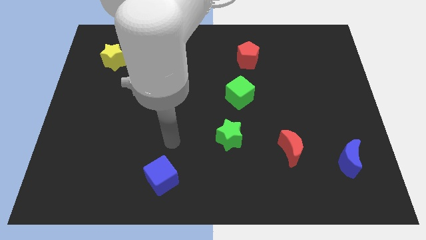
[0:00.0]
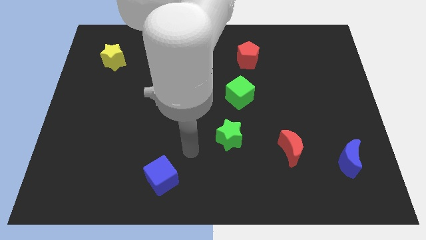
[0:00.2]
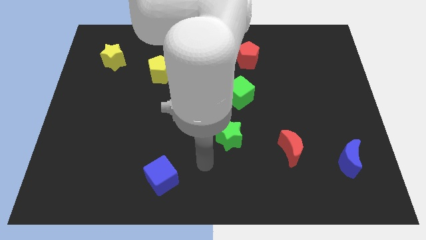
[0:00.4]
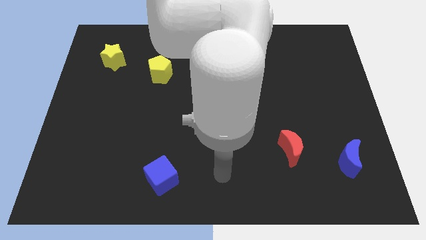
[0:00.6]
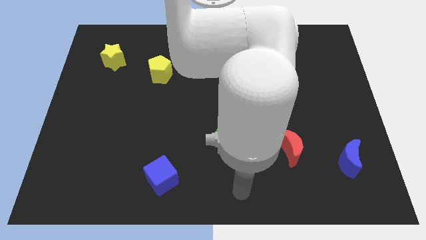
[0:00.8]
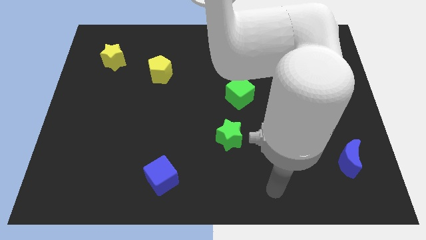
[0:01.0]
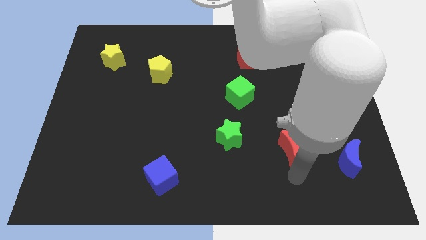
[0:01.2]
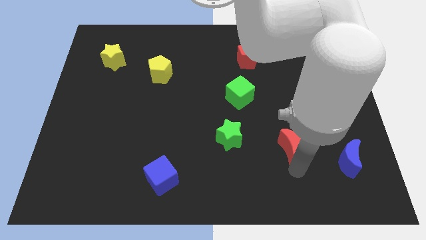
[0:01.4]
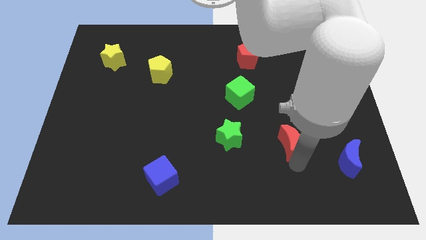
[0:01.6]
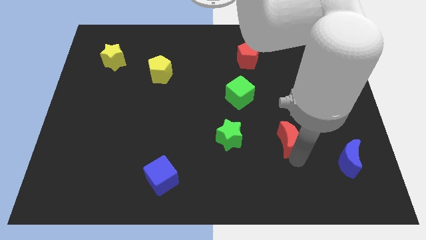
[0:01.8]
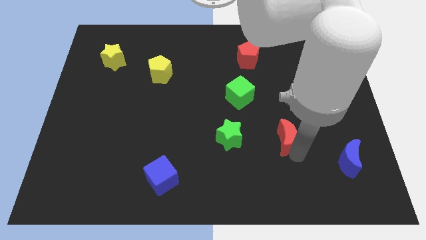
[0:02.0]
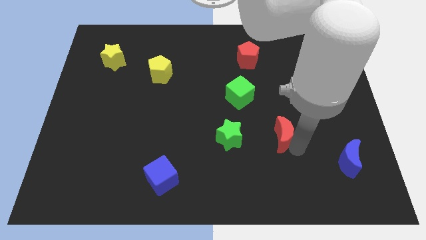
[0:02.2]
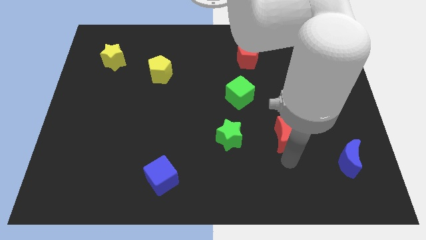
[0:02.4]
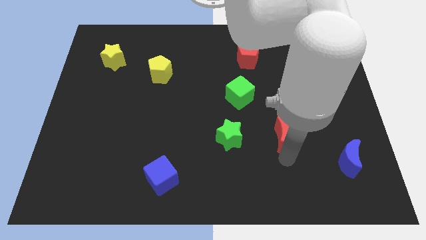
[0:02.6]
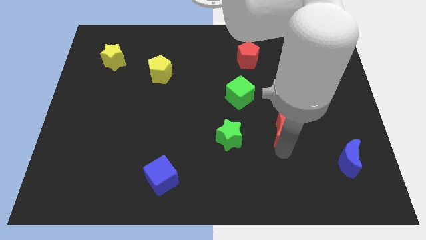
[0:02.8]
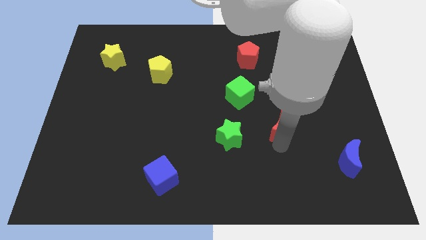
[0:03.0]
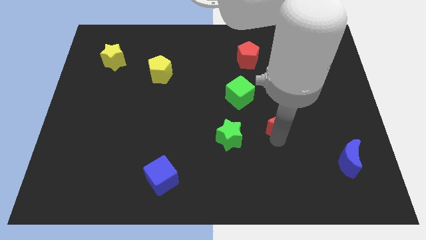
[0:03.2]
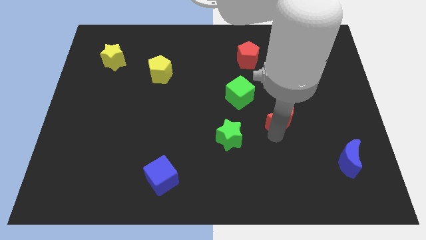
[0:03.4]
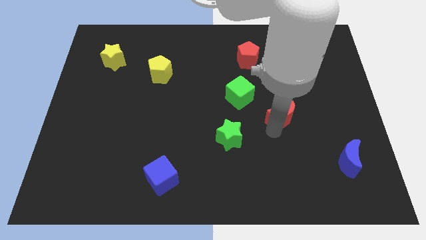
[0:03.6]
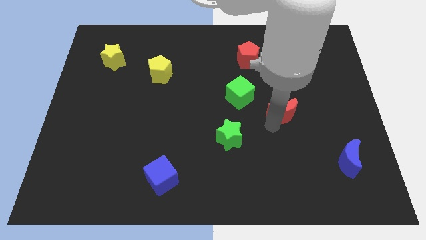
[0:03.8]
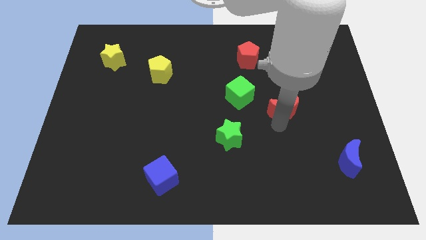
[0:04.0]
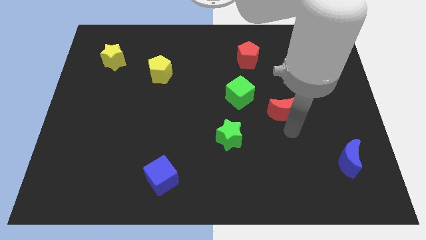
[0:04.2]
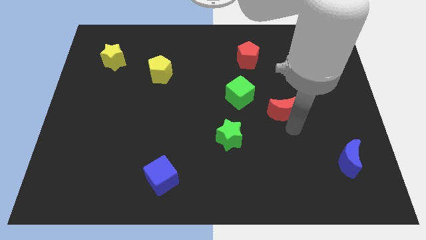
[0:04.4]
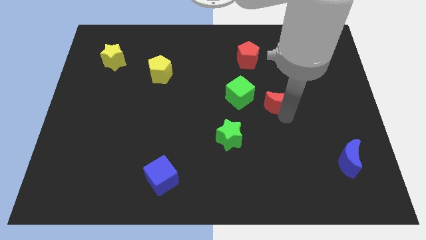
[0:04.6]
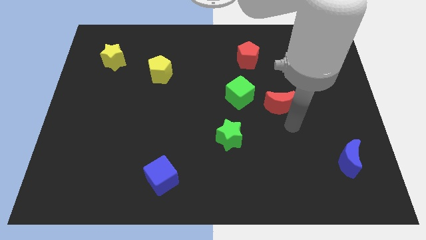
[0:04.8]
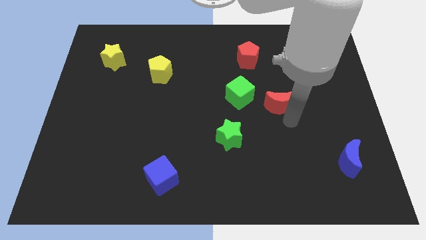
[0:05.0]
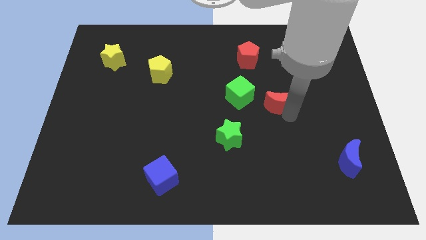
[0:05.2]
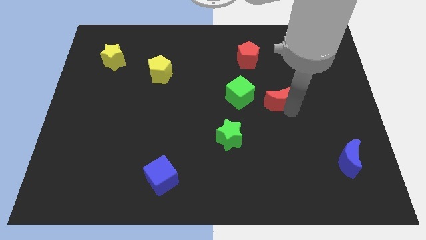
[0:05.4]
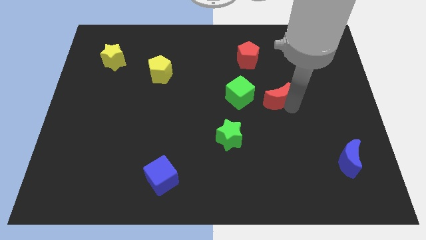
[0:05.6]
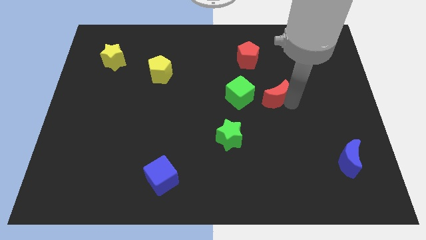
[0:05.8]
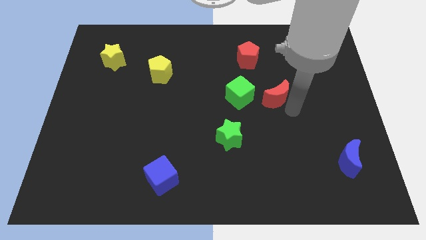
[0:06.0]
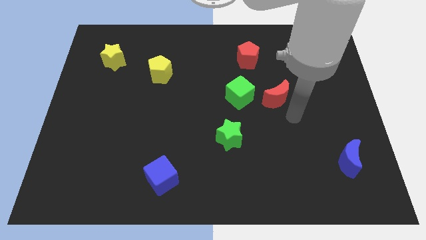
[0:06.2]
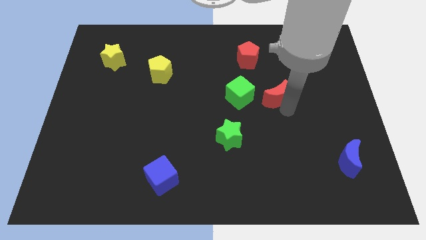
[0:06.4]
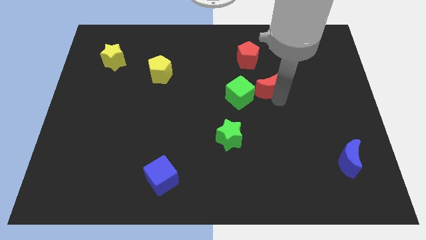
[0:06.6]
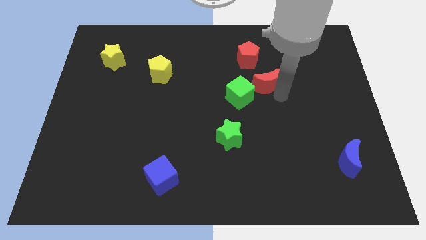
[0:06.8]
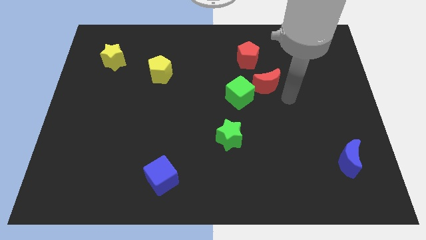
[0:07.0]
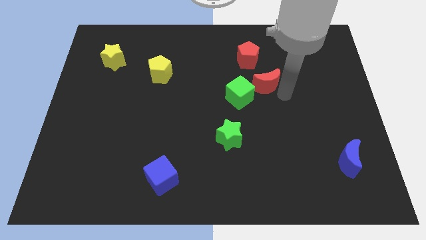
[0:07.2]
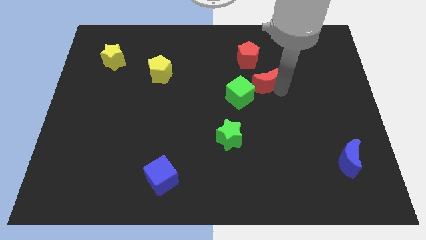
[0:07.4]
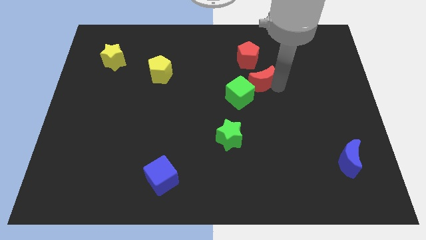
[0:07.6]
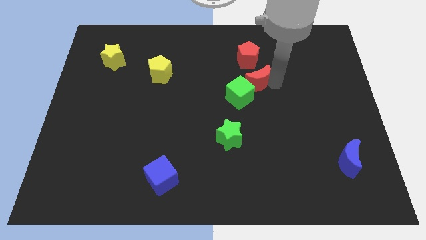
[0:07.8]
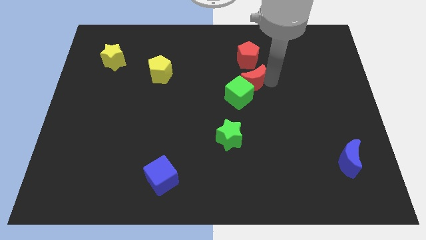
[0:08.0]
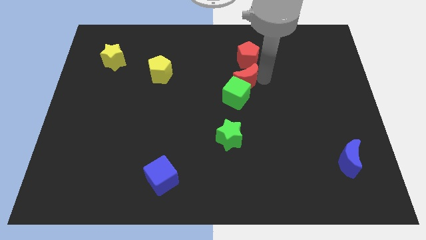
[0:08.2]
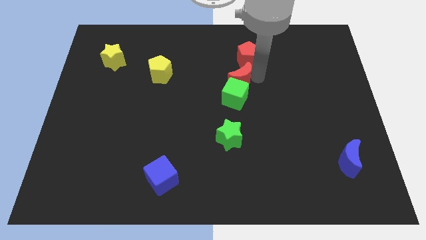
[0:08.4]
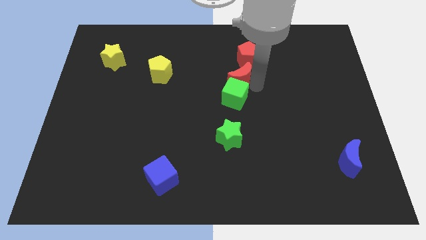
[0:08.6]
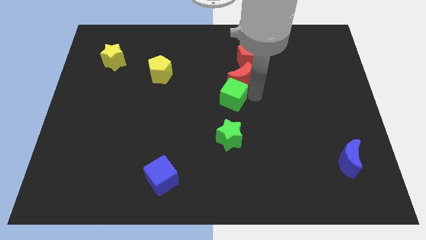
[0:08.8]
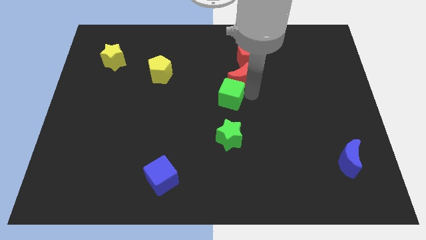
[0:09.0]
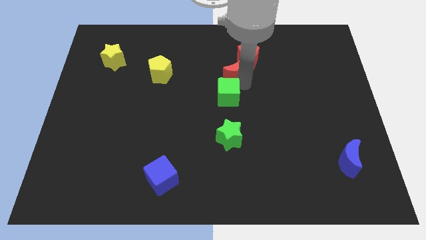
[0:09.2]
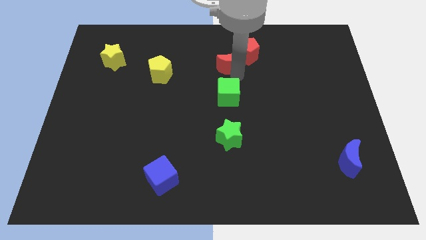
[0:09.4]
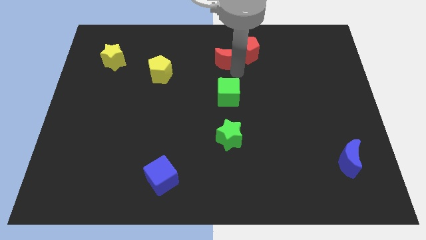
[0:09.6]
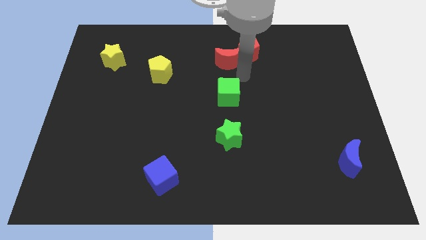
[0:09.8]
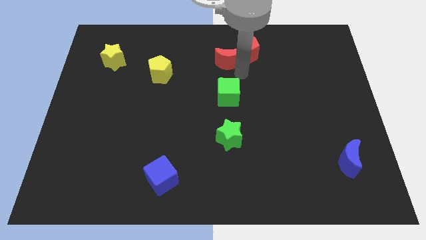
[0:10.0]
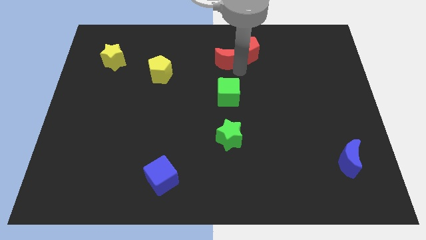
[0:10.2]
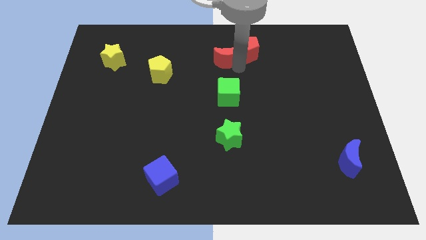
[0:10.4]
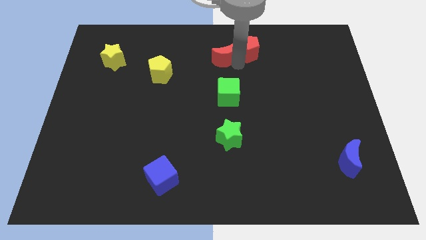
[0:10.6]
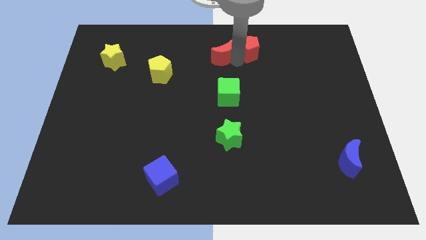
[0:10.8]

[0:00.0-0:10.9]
slide the red moon to the towards your base

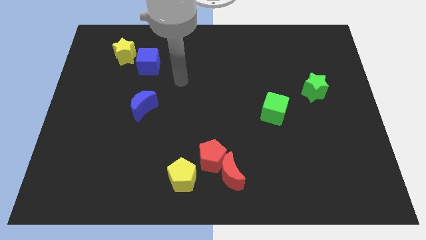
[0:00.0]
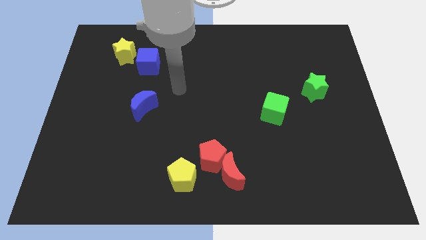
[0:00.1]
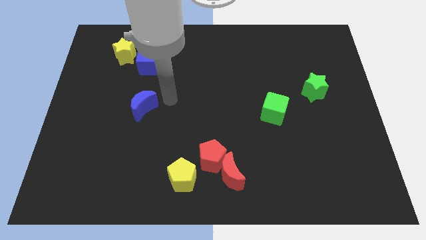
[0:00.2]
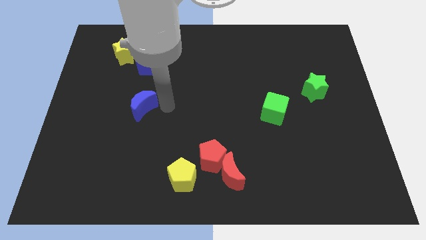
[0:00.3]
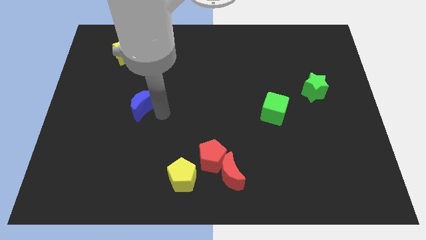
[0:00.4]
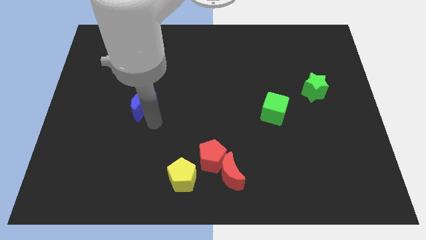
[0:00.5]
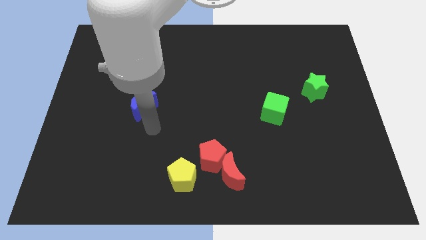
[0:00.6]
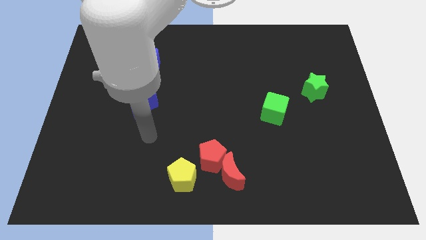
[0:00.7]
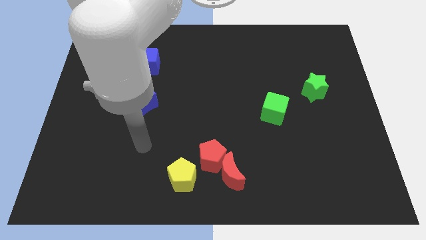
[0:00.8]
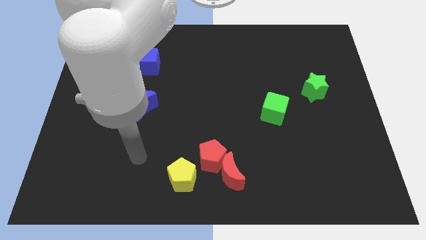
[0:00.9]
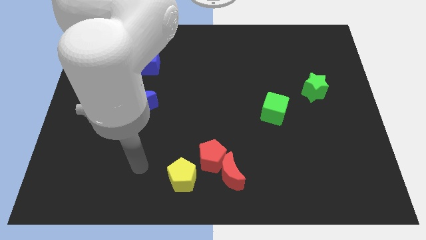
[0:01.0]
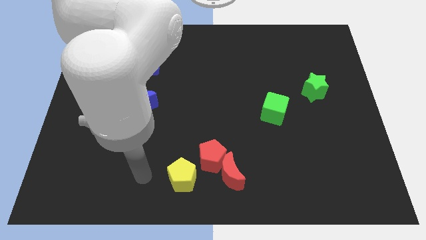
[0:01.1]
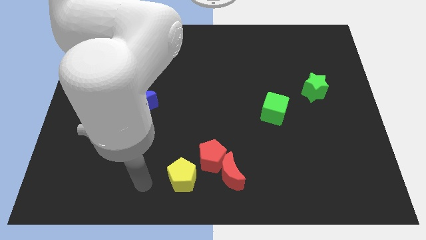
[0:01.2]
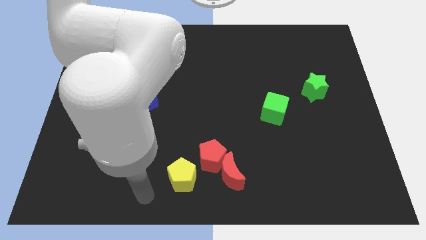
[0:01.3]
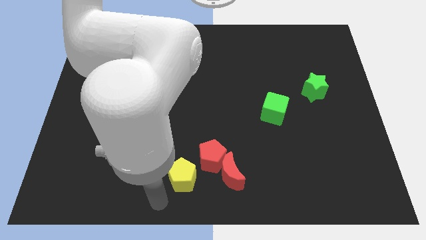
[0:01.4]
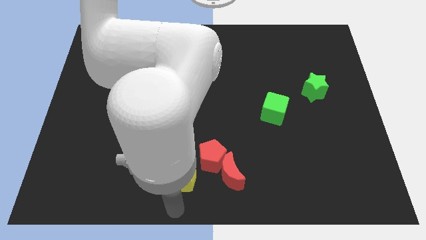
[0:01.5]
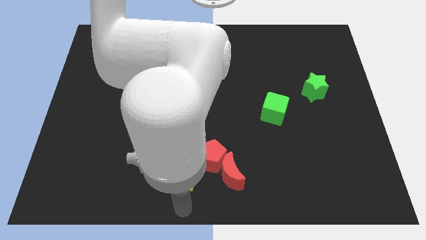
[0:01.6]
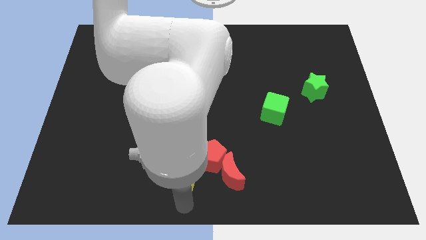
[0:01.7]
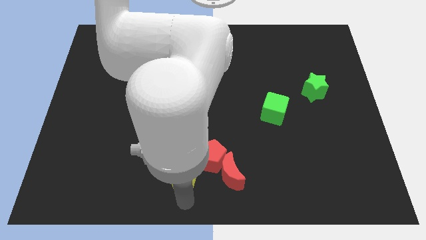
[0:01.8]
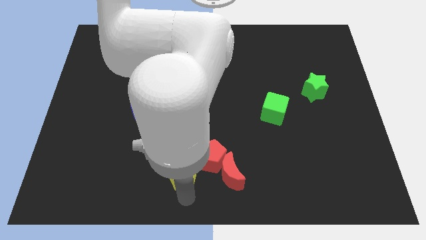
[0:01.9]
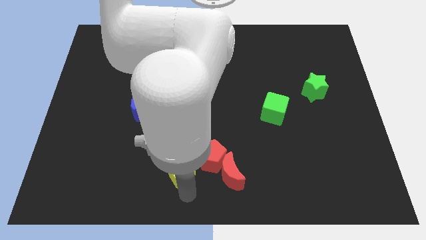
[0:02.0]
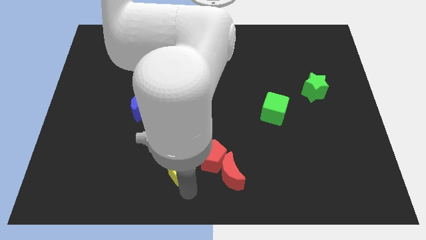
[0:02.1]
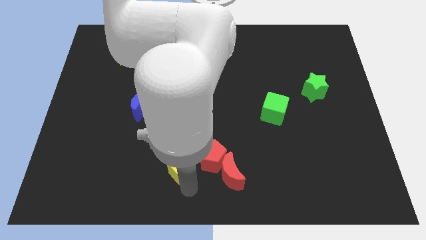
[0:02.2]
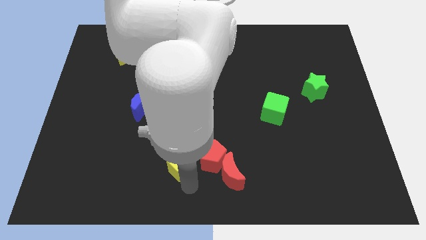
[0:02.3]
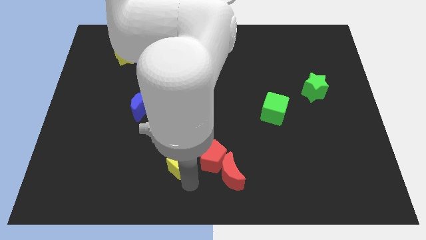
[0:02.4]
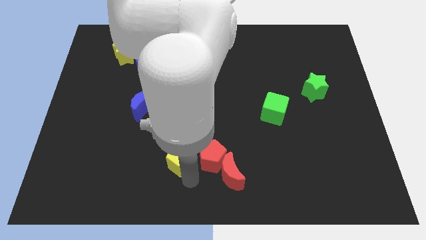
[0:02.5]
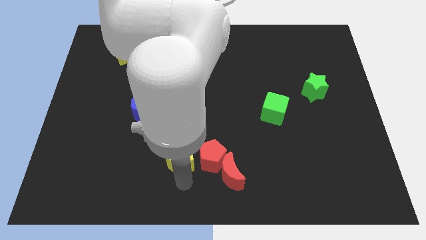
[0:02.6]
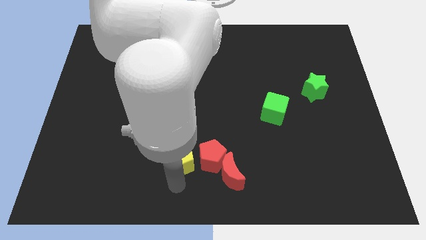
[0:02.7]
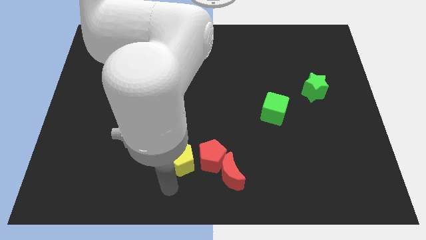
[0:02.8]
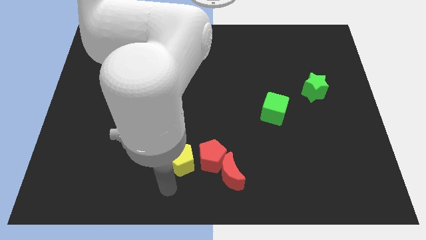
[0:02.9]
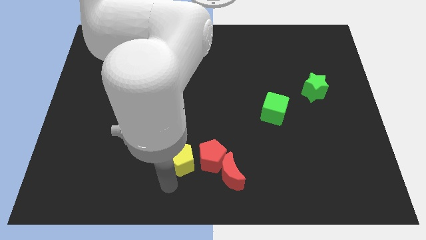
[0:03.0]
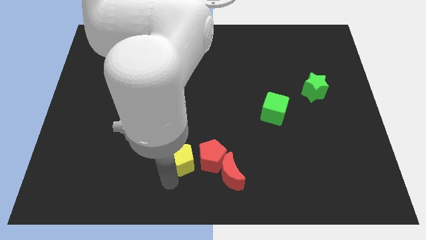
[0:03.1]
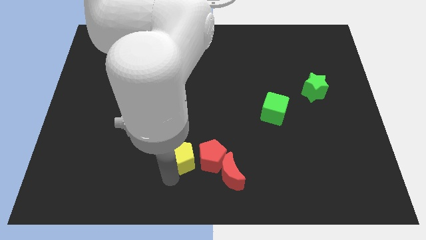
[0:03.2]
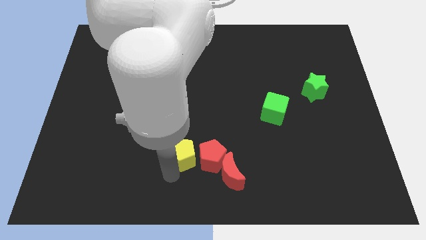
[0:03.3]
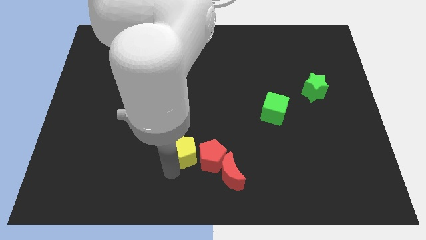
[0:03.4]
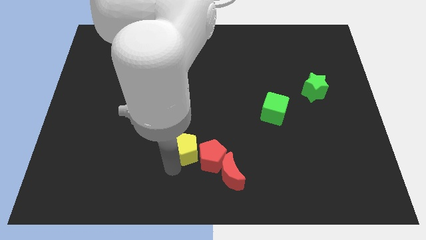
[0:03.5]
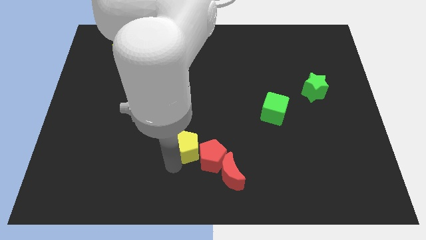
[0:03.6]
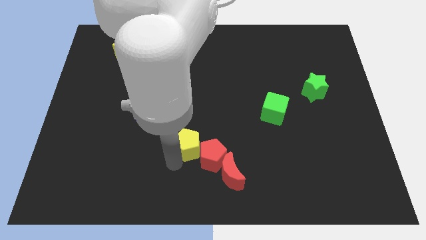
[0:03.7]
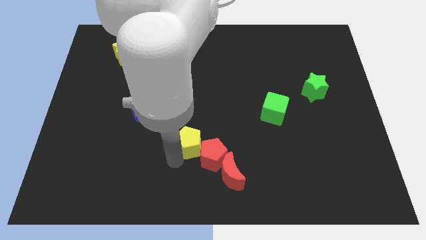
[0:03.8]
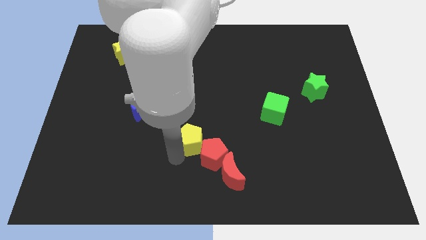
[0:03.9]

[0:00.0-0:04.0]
move the yellow pentagon to the middle
